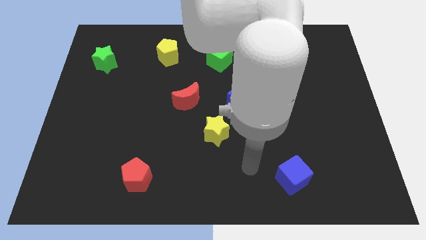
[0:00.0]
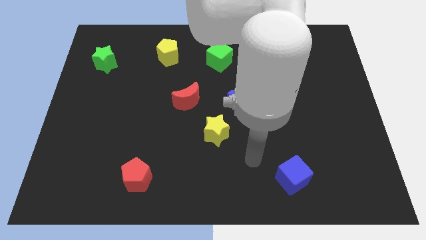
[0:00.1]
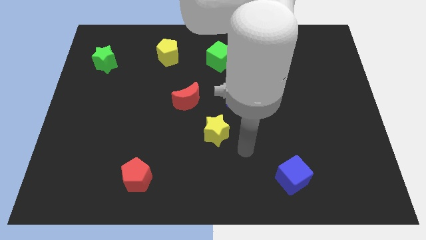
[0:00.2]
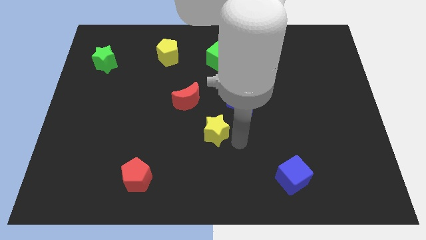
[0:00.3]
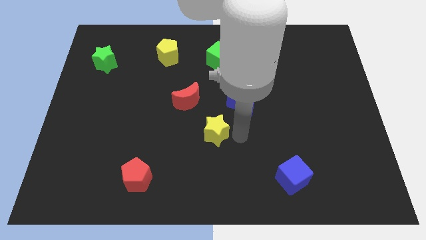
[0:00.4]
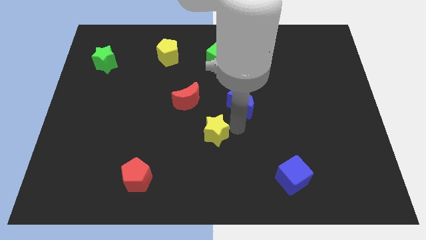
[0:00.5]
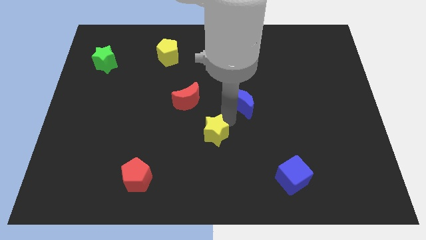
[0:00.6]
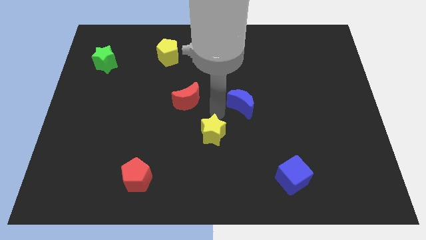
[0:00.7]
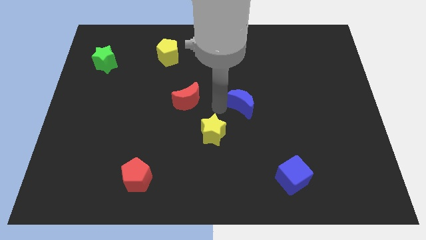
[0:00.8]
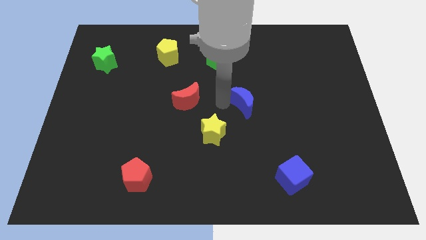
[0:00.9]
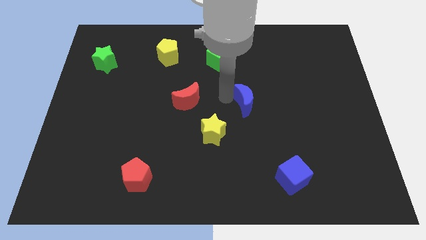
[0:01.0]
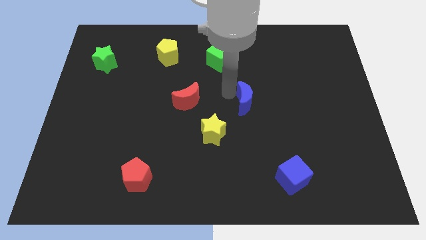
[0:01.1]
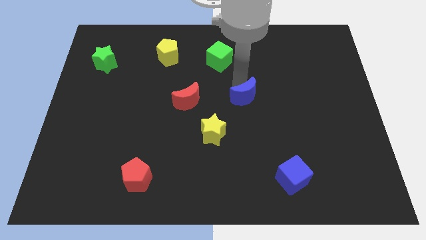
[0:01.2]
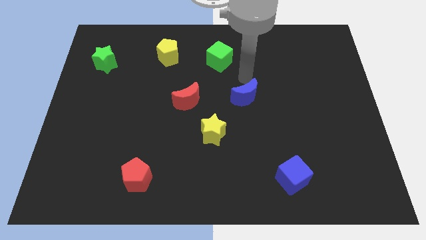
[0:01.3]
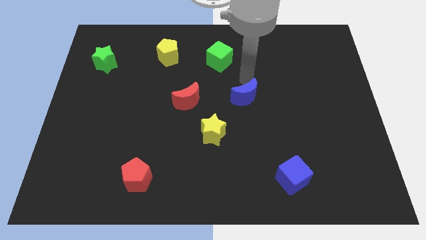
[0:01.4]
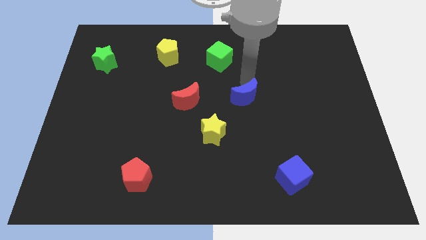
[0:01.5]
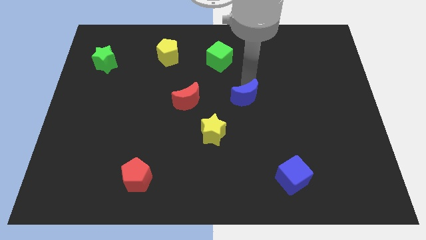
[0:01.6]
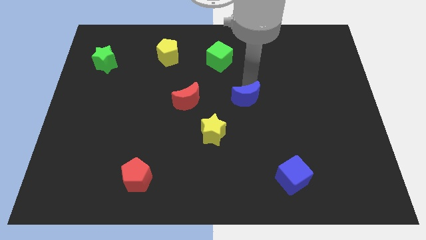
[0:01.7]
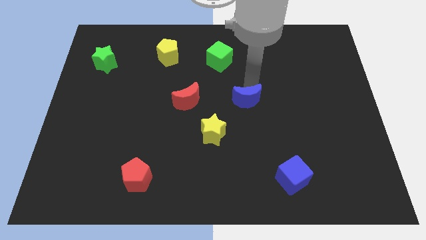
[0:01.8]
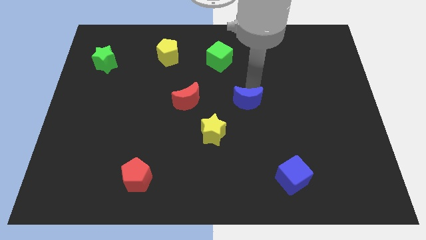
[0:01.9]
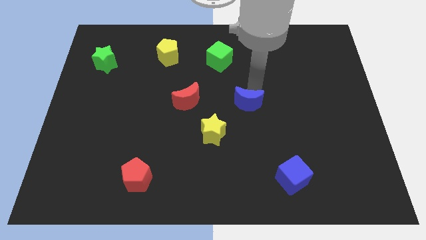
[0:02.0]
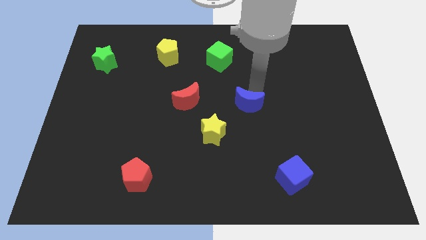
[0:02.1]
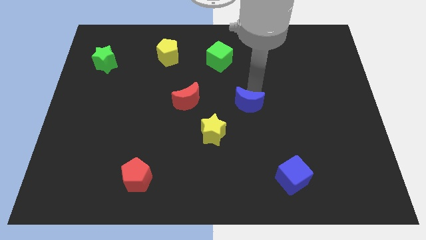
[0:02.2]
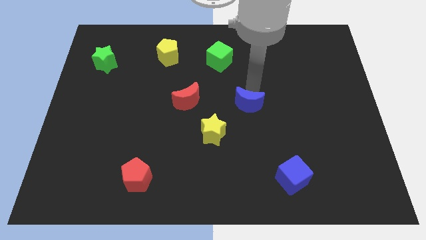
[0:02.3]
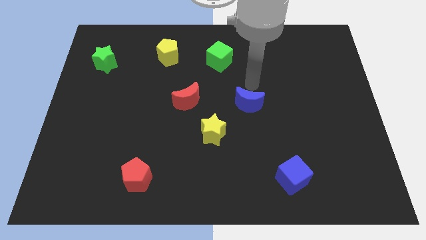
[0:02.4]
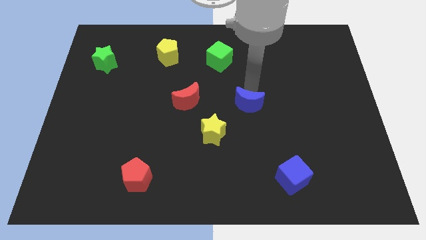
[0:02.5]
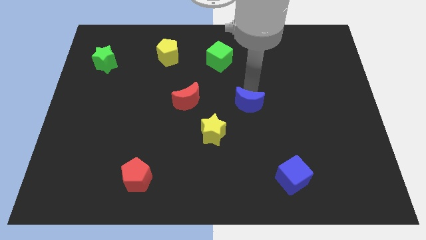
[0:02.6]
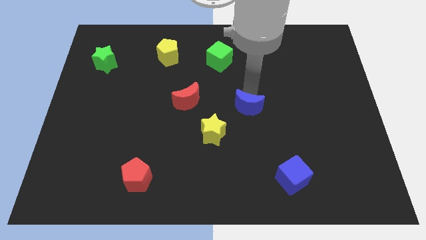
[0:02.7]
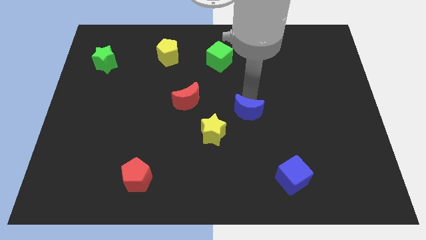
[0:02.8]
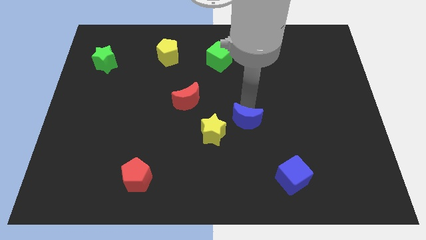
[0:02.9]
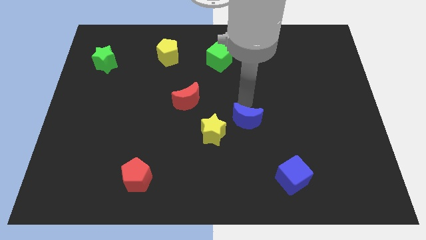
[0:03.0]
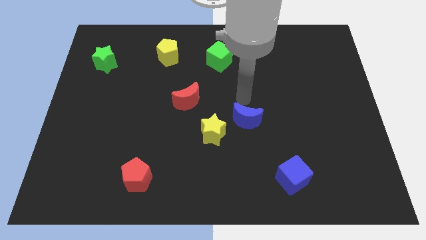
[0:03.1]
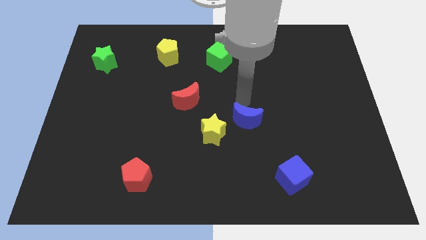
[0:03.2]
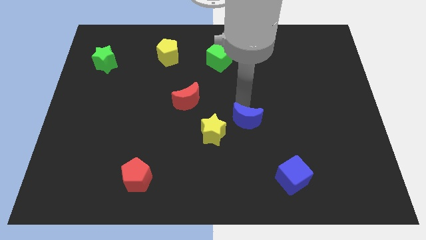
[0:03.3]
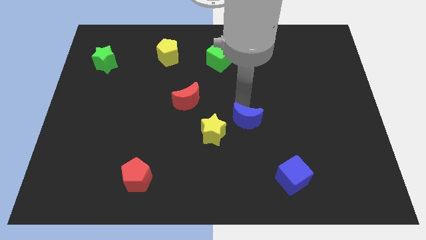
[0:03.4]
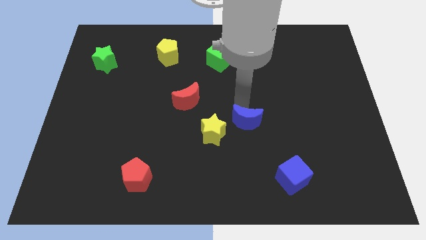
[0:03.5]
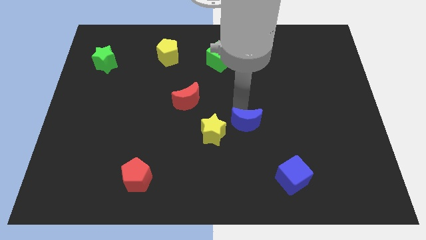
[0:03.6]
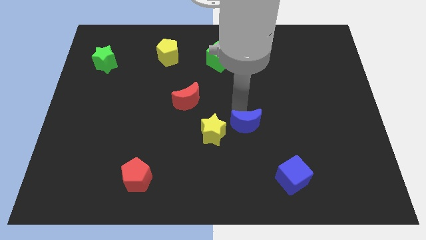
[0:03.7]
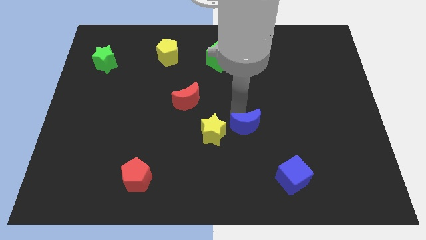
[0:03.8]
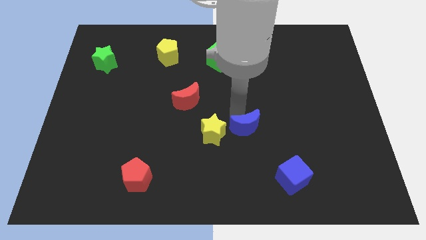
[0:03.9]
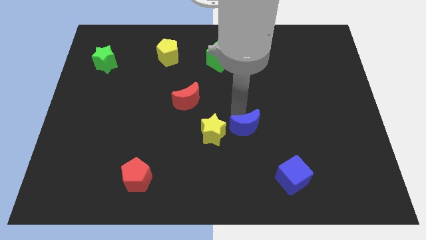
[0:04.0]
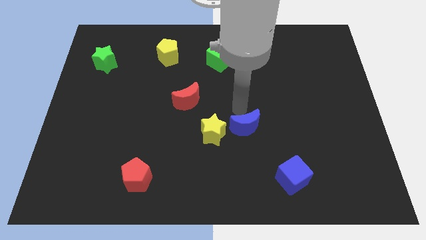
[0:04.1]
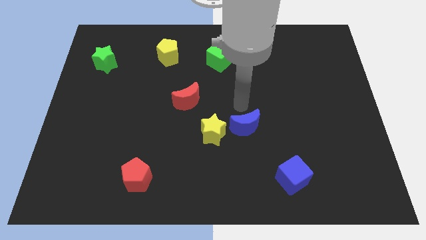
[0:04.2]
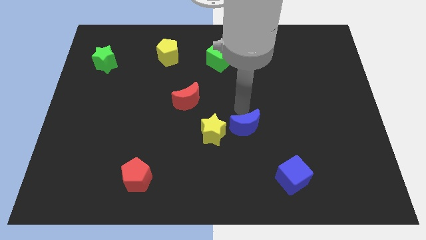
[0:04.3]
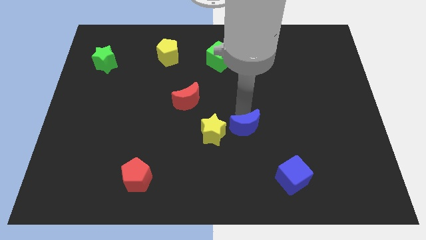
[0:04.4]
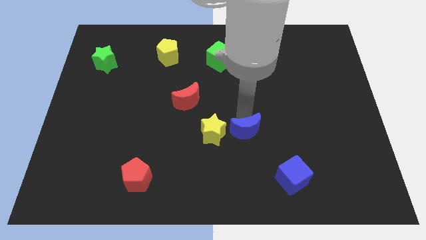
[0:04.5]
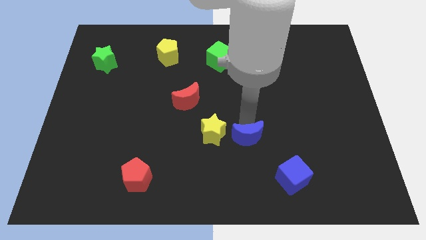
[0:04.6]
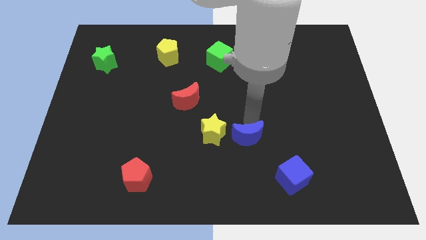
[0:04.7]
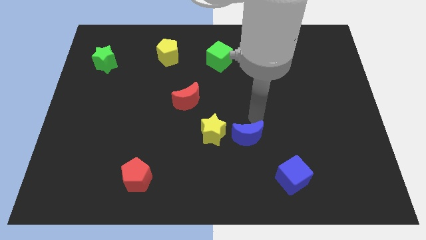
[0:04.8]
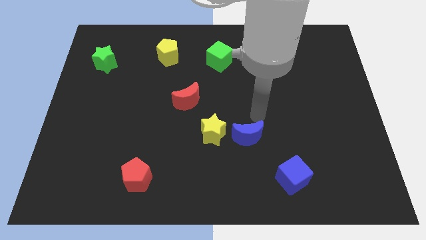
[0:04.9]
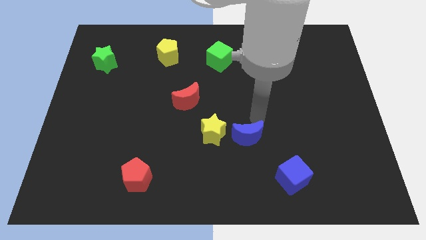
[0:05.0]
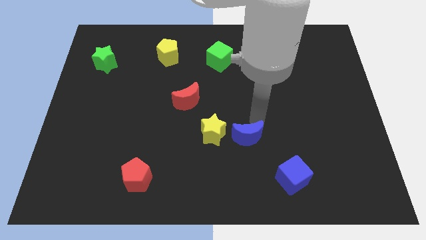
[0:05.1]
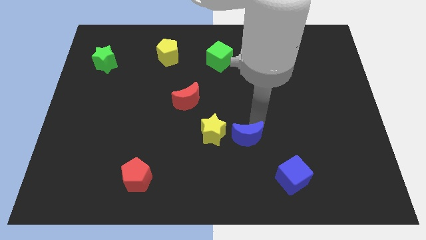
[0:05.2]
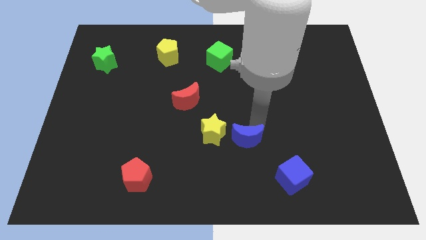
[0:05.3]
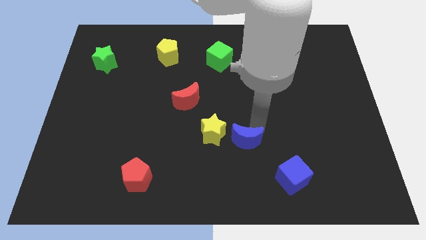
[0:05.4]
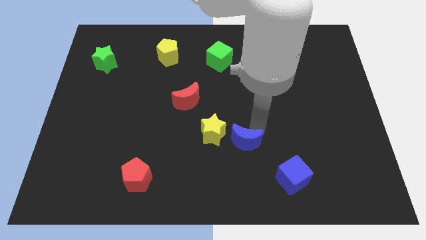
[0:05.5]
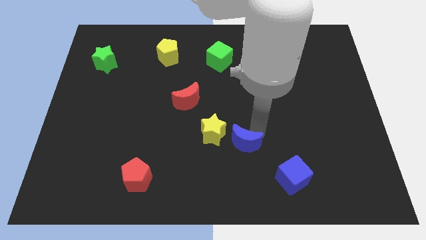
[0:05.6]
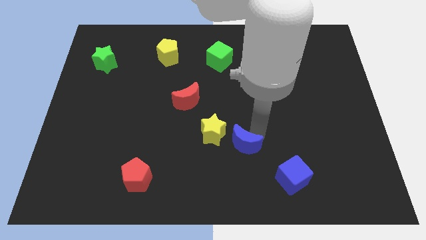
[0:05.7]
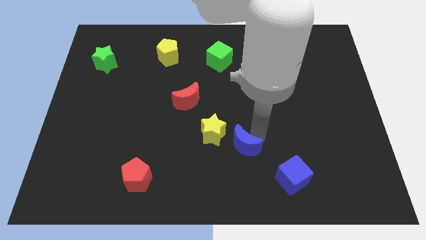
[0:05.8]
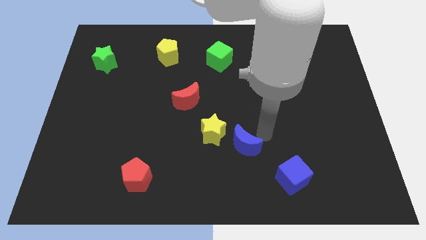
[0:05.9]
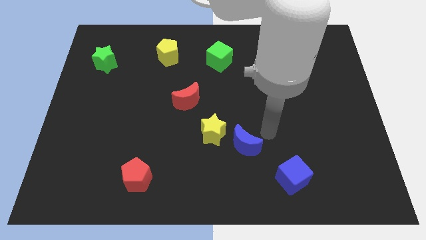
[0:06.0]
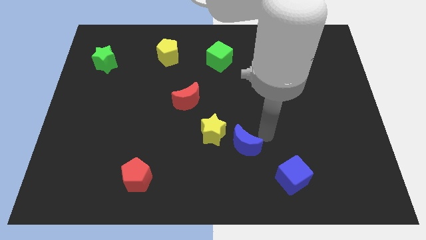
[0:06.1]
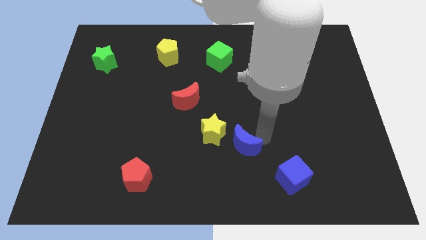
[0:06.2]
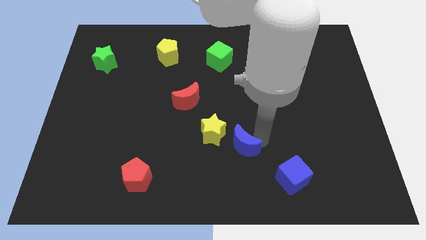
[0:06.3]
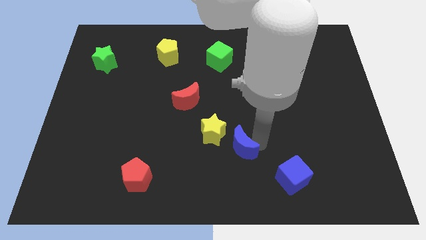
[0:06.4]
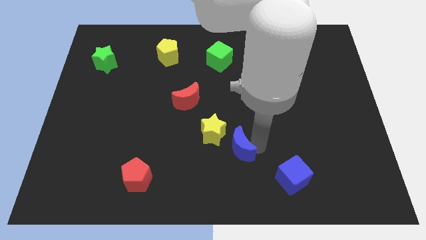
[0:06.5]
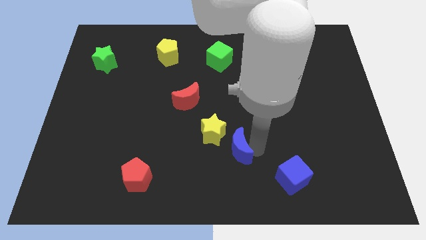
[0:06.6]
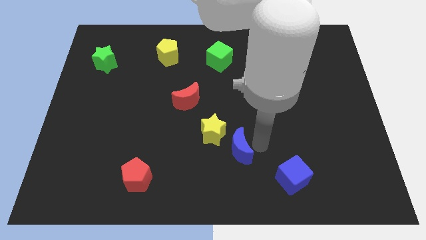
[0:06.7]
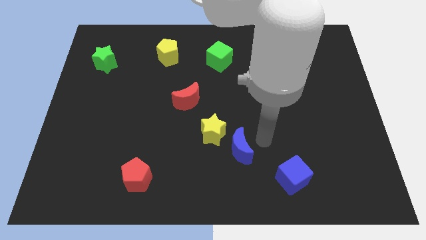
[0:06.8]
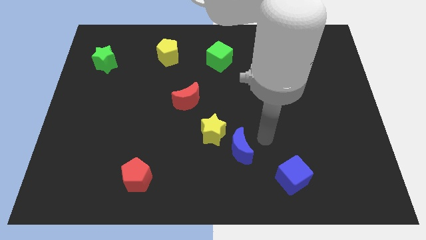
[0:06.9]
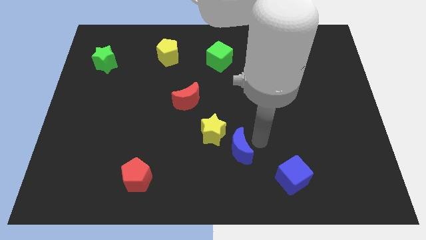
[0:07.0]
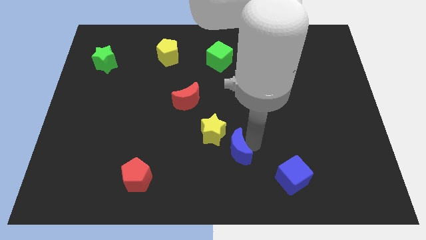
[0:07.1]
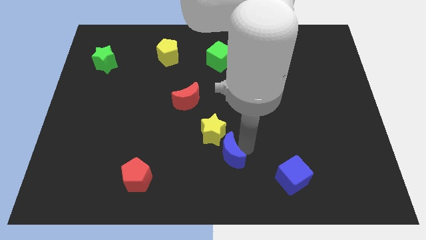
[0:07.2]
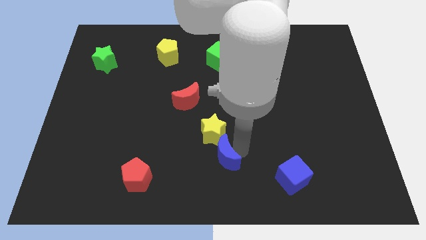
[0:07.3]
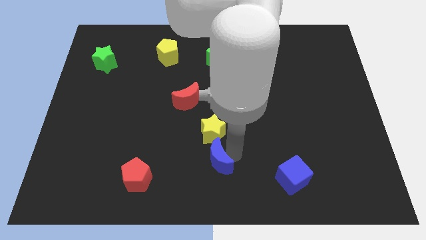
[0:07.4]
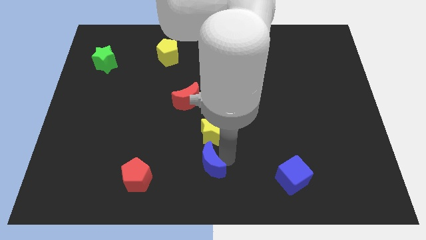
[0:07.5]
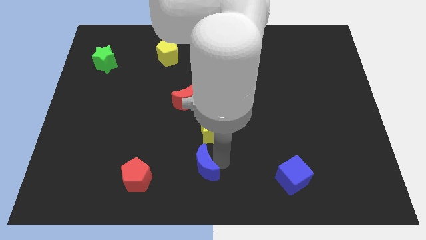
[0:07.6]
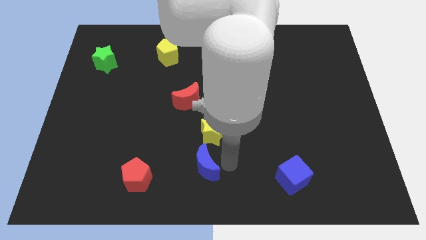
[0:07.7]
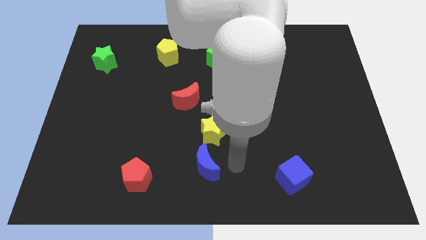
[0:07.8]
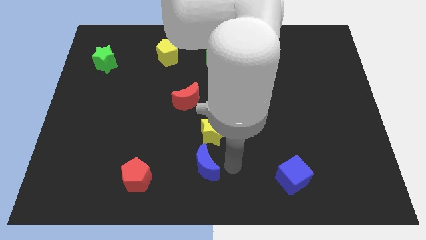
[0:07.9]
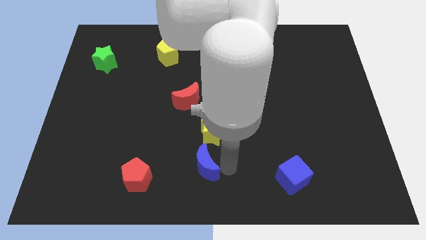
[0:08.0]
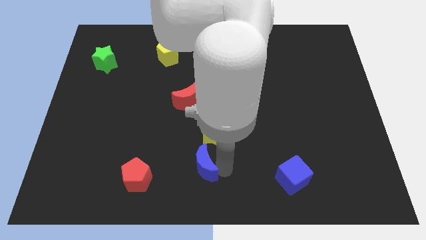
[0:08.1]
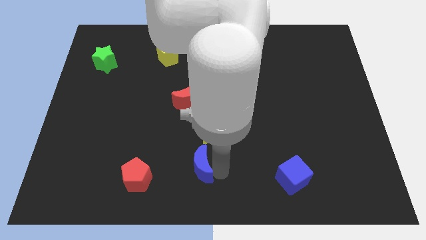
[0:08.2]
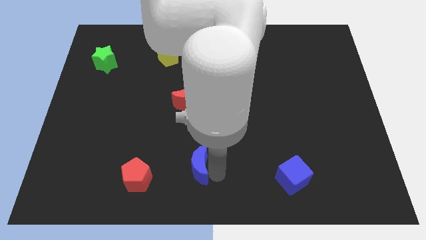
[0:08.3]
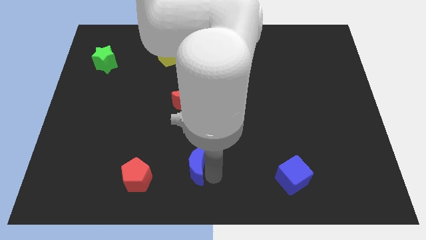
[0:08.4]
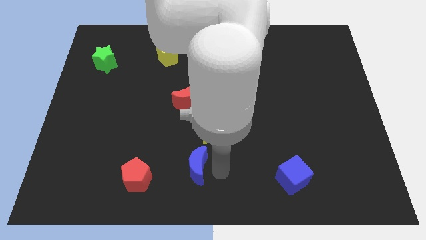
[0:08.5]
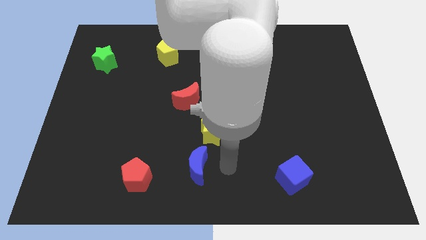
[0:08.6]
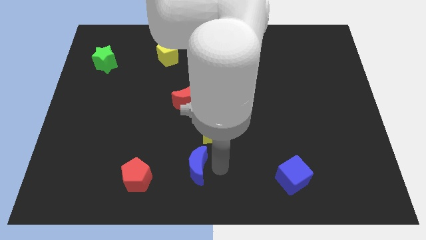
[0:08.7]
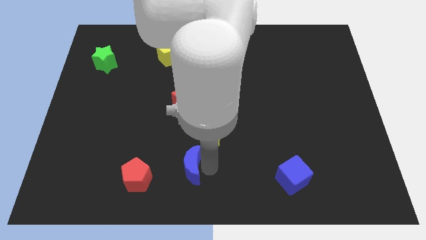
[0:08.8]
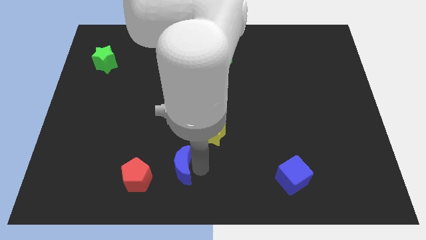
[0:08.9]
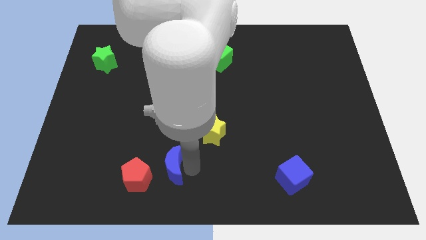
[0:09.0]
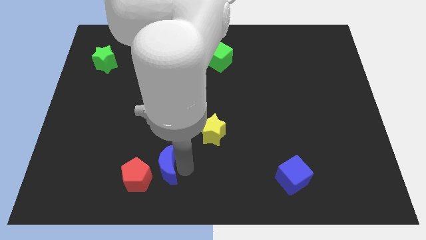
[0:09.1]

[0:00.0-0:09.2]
slide the blue moon close to the red pentagon
